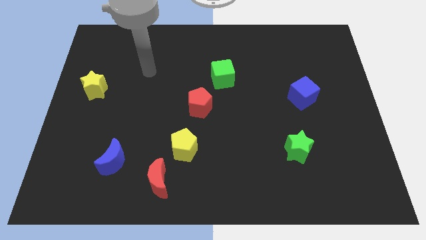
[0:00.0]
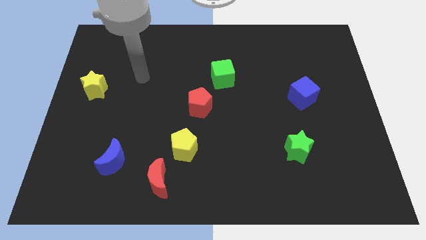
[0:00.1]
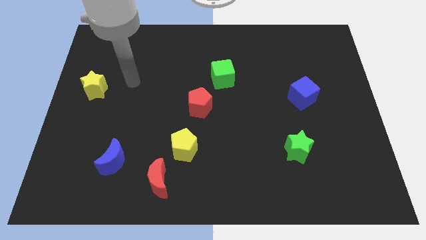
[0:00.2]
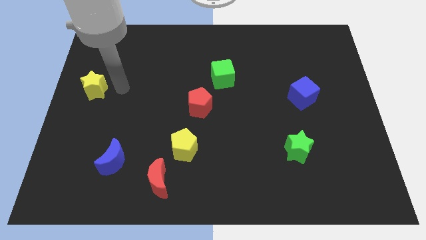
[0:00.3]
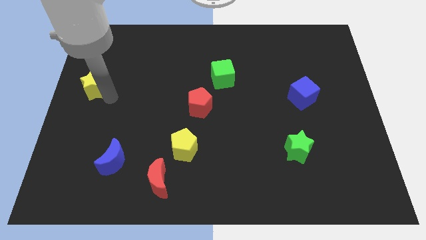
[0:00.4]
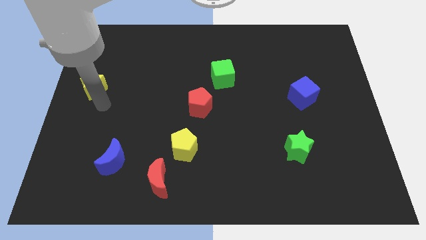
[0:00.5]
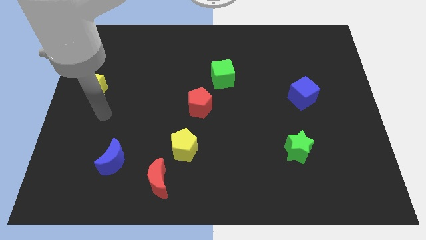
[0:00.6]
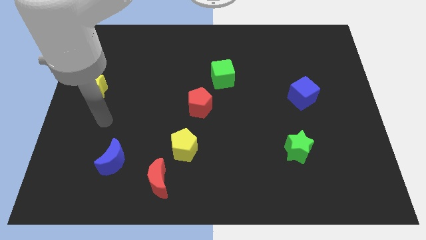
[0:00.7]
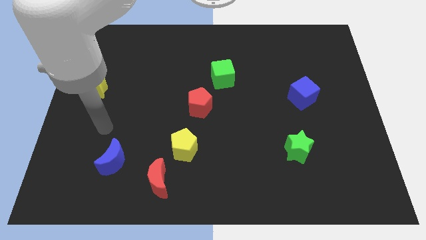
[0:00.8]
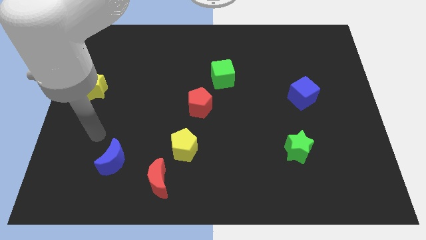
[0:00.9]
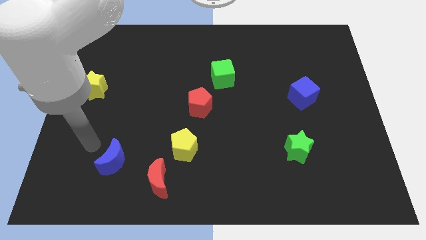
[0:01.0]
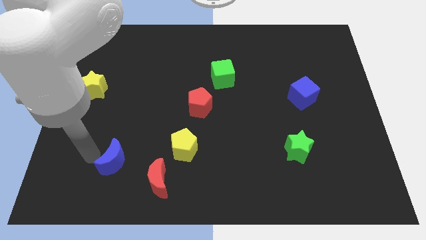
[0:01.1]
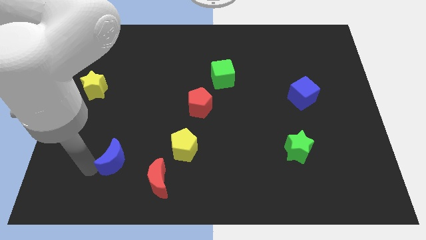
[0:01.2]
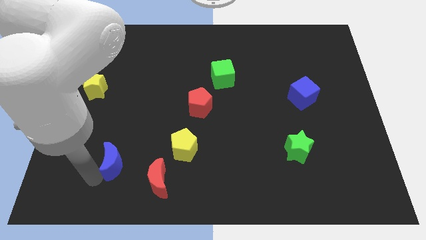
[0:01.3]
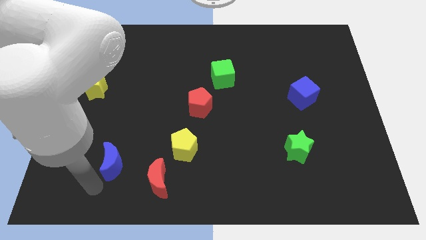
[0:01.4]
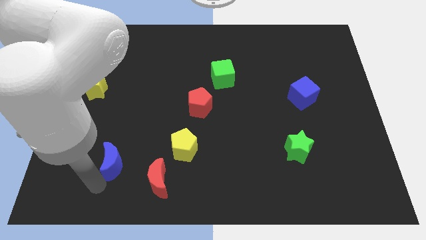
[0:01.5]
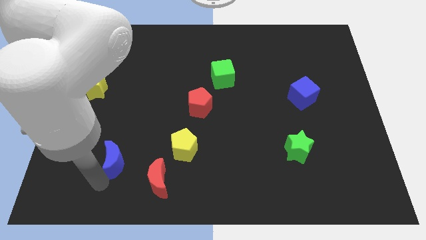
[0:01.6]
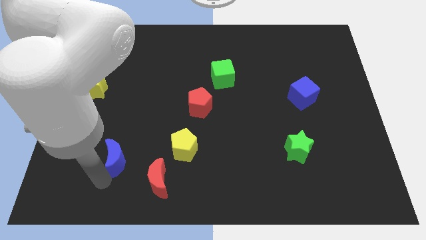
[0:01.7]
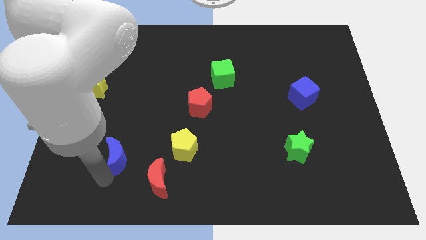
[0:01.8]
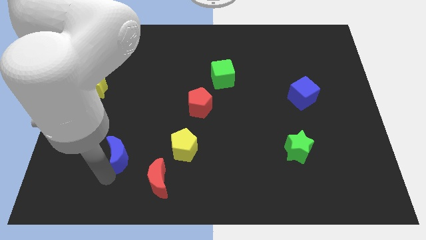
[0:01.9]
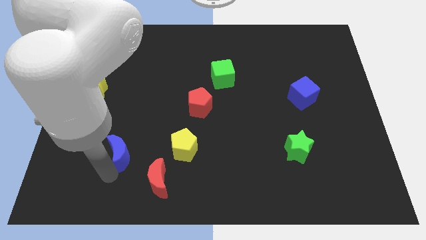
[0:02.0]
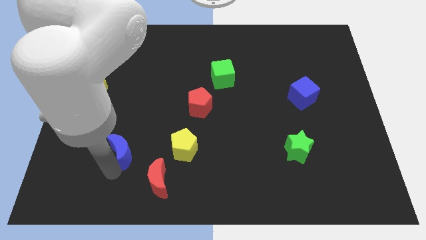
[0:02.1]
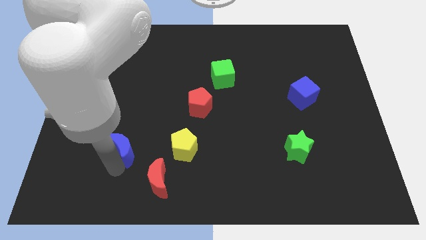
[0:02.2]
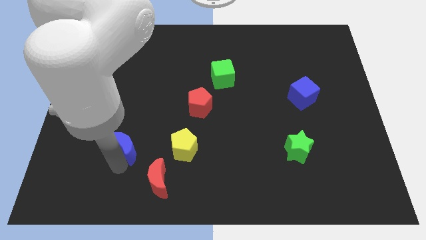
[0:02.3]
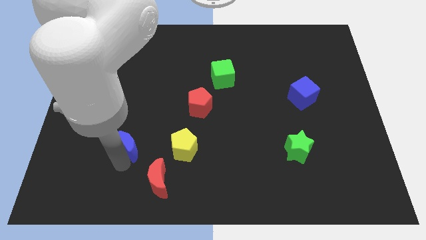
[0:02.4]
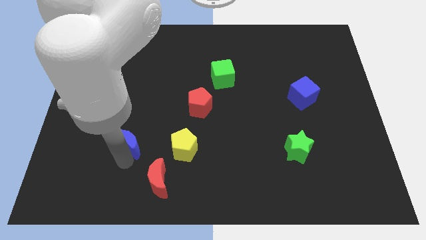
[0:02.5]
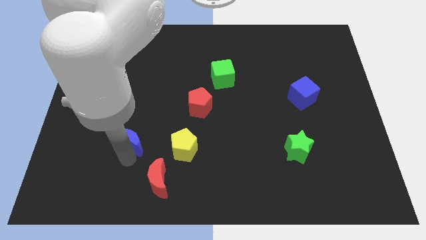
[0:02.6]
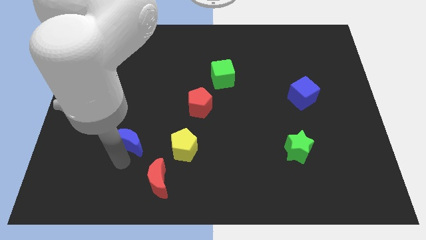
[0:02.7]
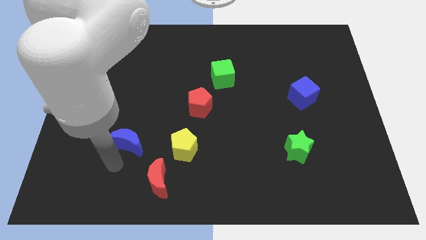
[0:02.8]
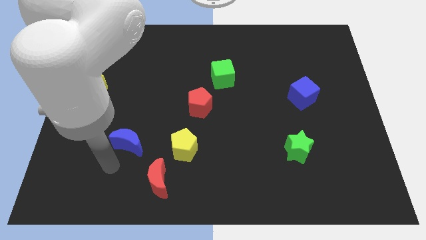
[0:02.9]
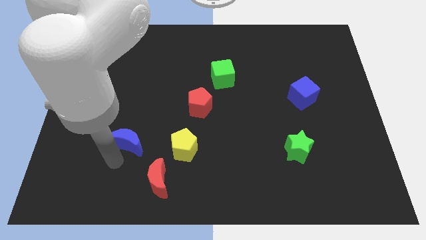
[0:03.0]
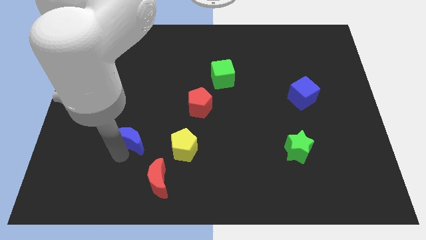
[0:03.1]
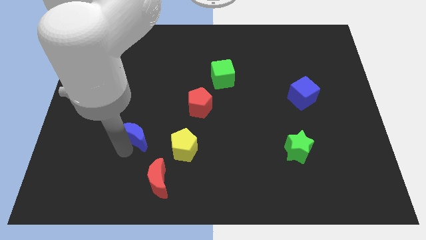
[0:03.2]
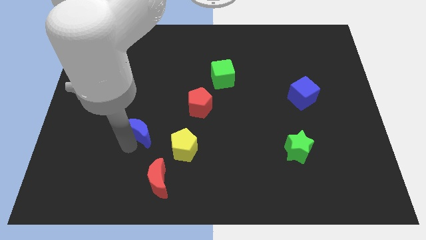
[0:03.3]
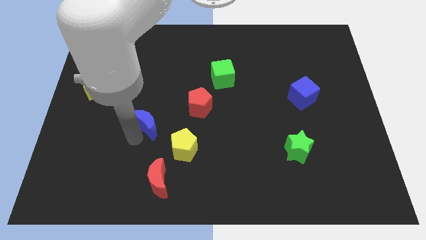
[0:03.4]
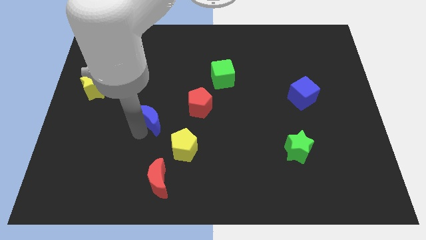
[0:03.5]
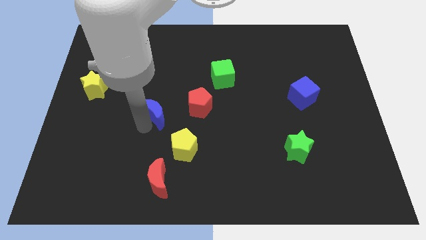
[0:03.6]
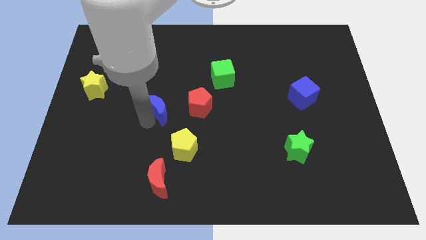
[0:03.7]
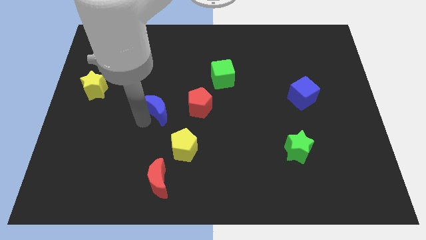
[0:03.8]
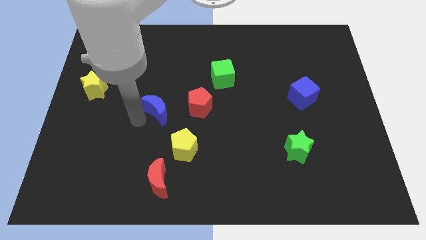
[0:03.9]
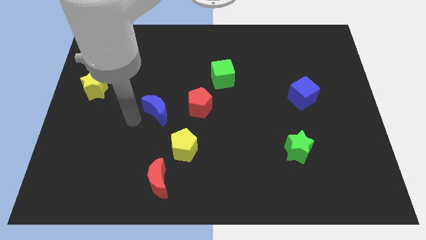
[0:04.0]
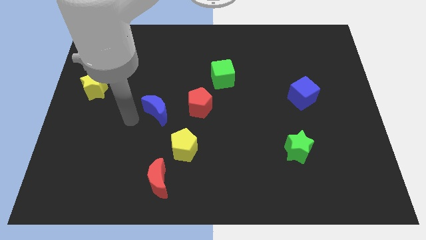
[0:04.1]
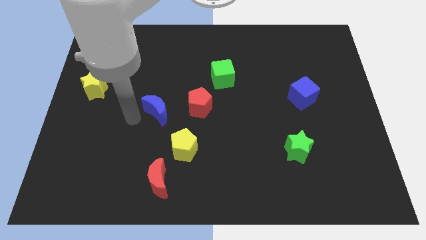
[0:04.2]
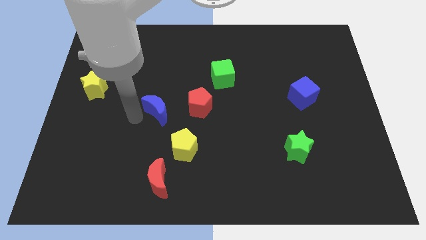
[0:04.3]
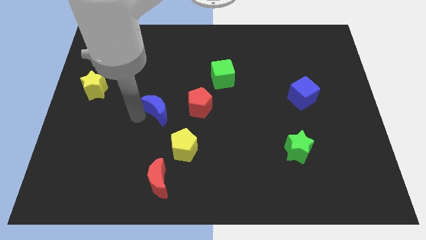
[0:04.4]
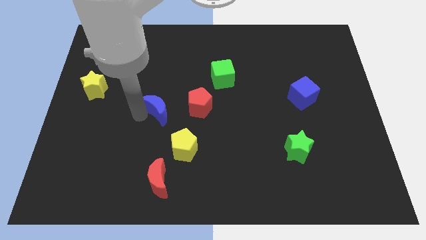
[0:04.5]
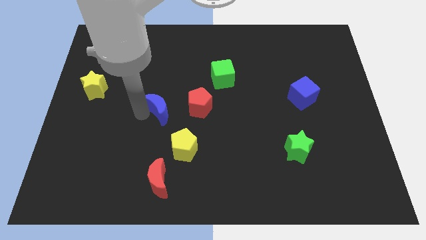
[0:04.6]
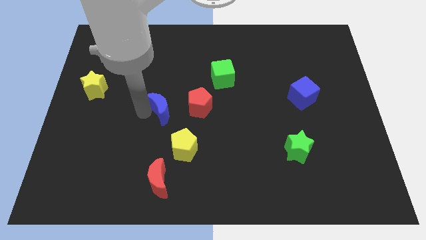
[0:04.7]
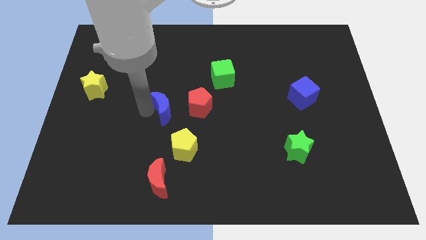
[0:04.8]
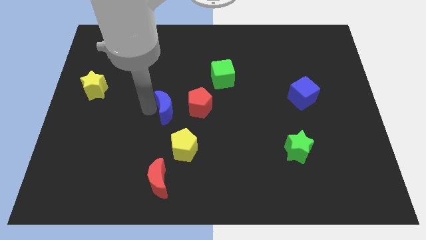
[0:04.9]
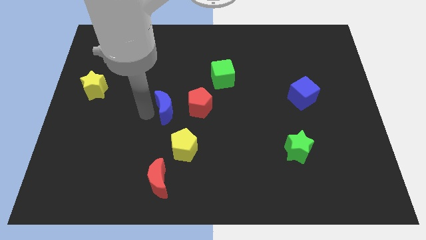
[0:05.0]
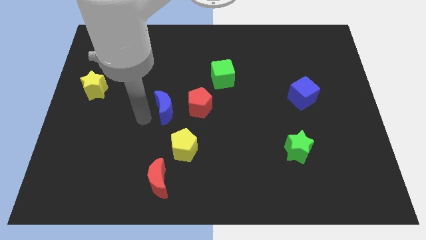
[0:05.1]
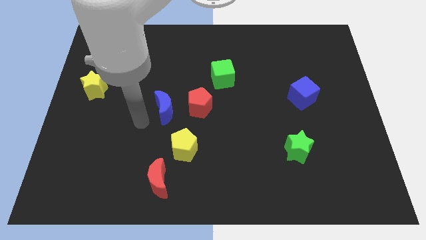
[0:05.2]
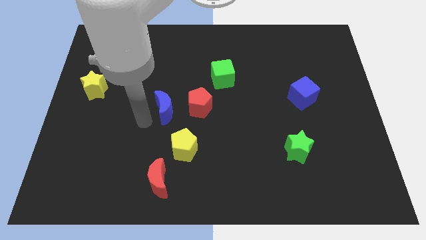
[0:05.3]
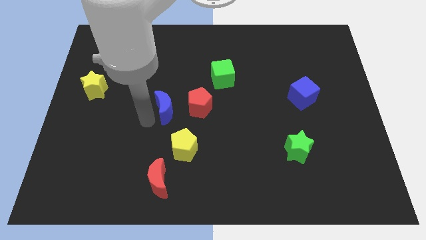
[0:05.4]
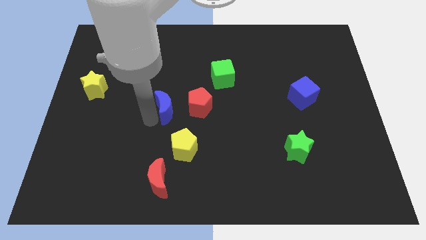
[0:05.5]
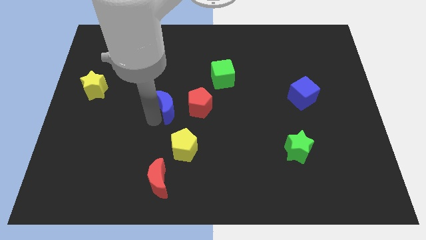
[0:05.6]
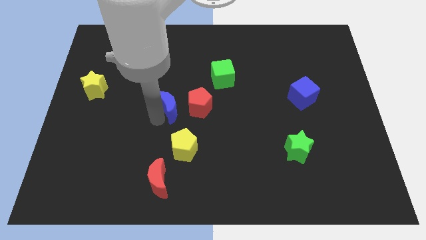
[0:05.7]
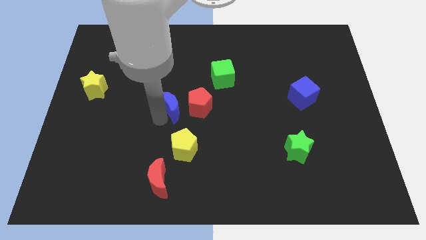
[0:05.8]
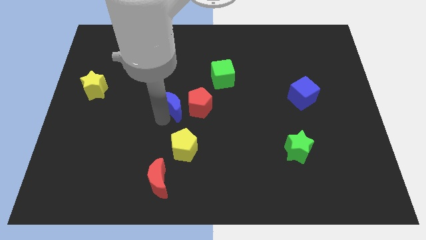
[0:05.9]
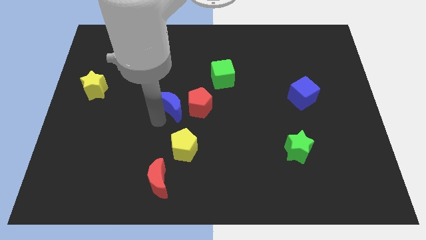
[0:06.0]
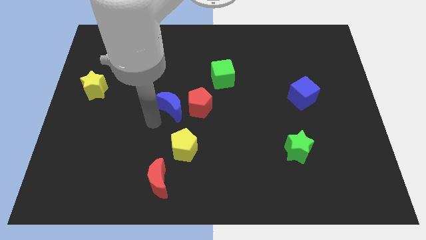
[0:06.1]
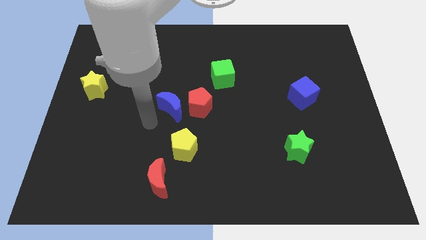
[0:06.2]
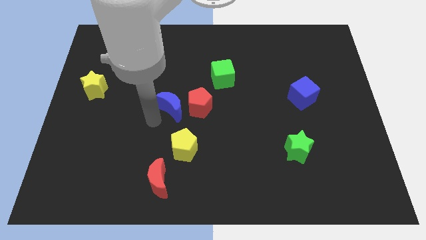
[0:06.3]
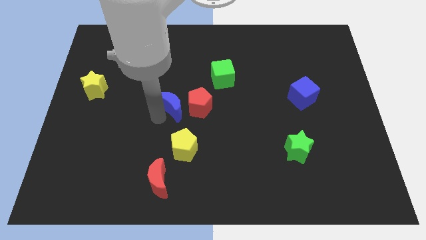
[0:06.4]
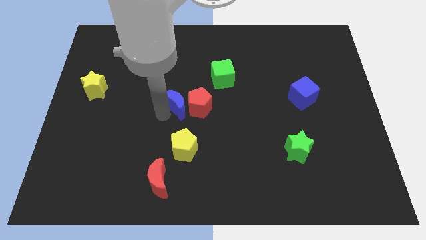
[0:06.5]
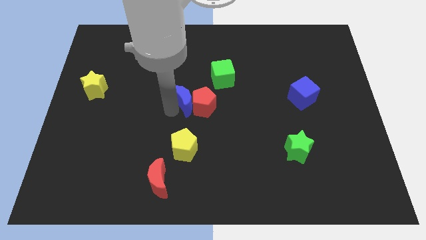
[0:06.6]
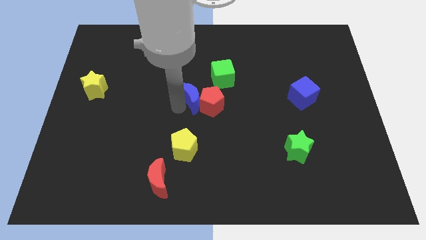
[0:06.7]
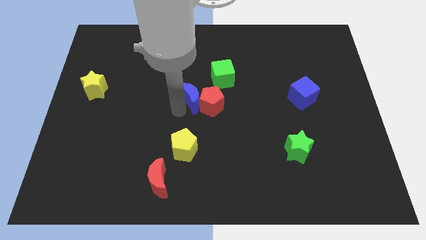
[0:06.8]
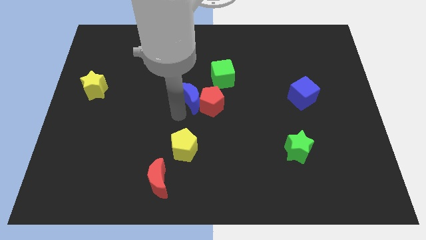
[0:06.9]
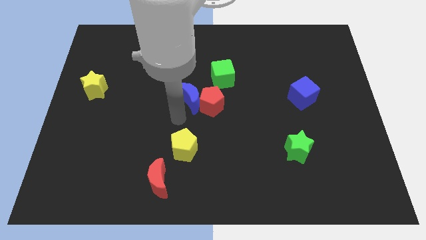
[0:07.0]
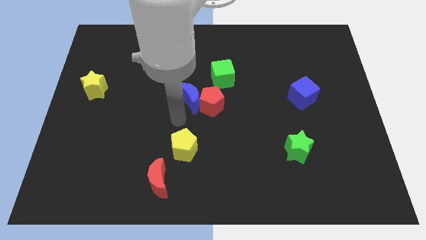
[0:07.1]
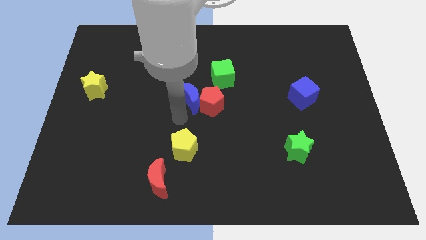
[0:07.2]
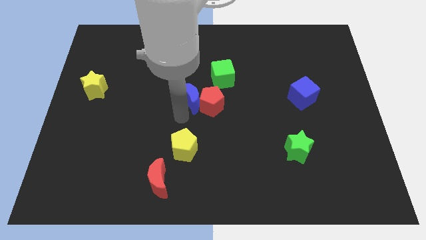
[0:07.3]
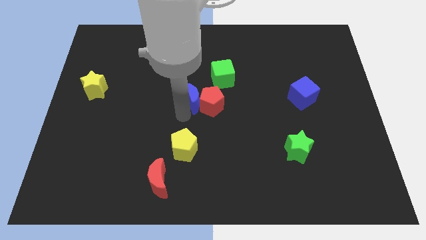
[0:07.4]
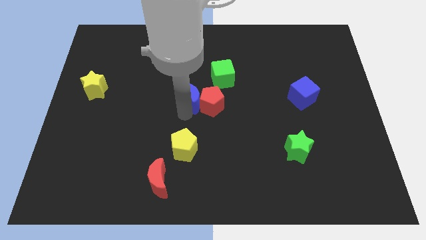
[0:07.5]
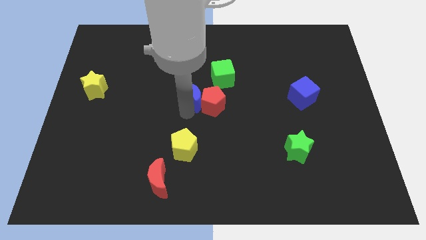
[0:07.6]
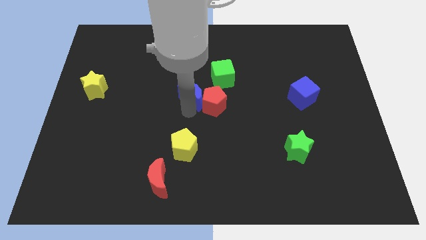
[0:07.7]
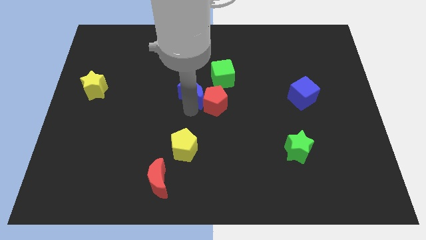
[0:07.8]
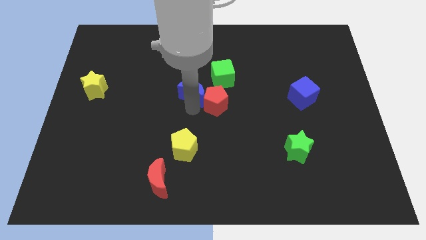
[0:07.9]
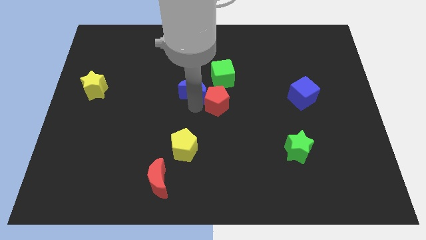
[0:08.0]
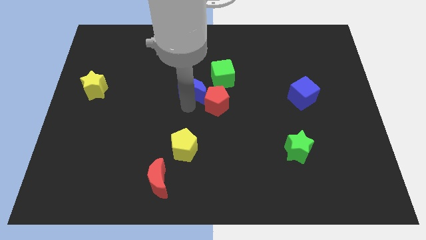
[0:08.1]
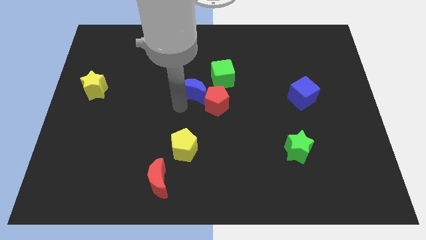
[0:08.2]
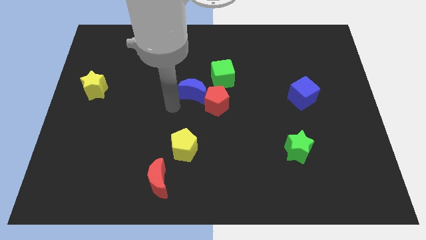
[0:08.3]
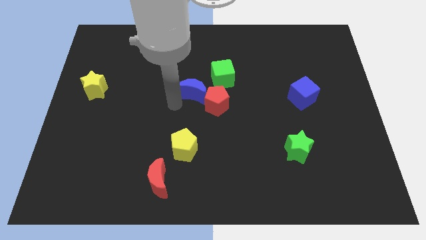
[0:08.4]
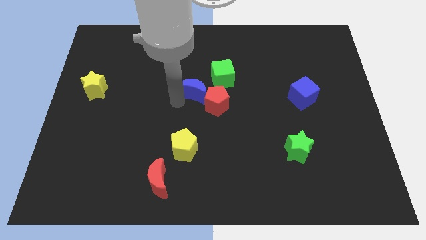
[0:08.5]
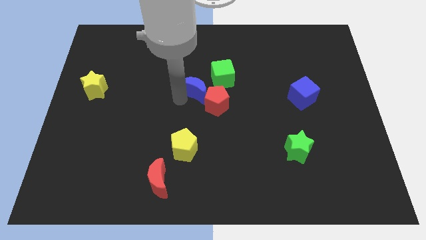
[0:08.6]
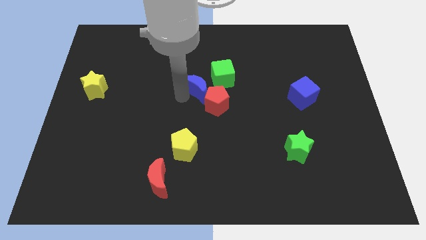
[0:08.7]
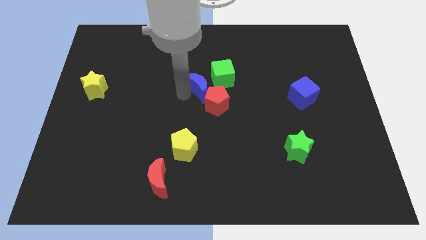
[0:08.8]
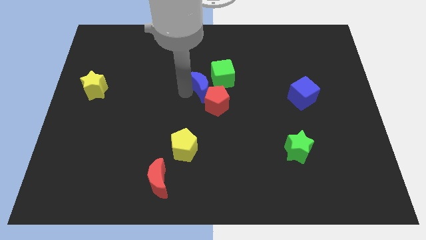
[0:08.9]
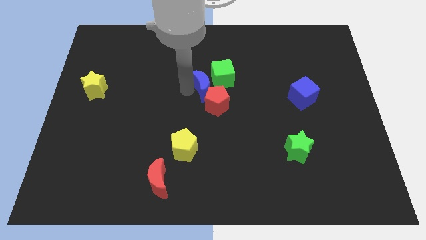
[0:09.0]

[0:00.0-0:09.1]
slide the blue moon next to the green cube
